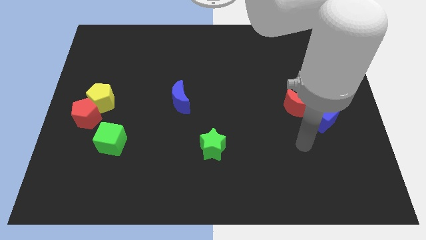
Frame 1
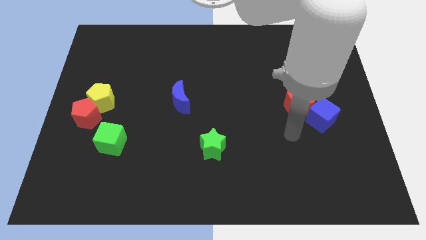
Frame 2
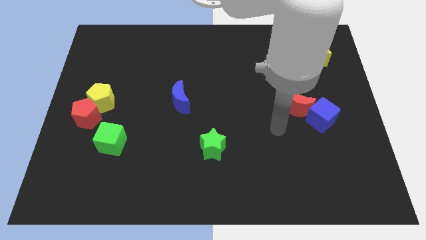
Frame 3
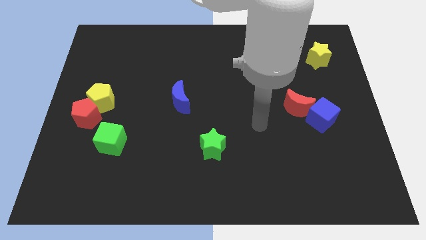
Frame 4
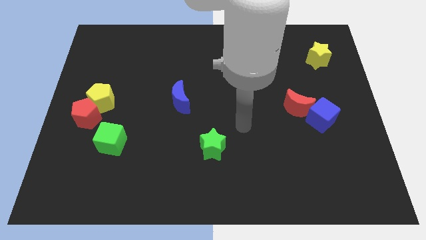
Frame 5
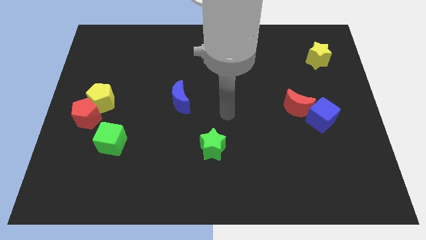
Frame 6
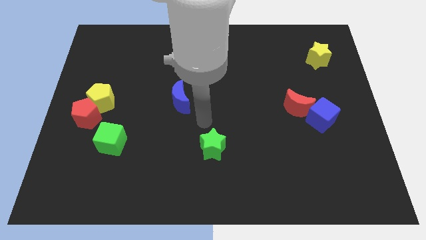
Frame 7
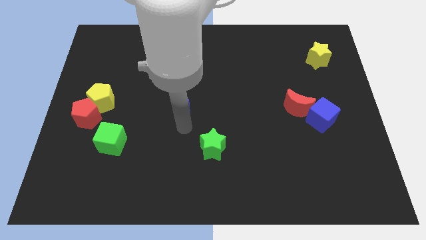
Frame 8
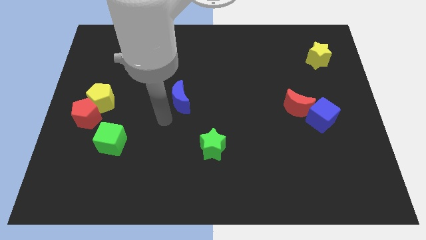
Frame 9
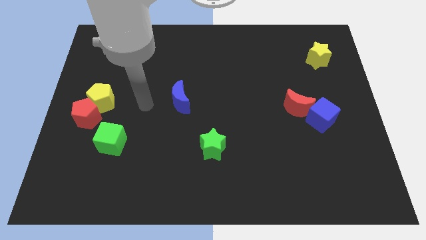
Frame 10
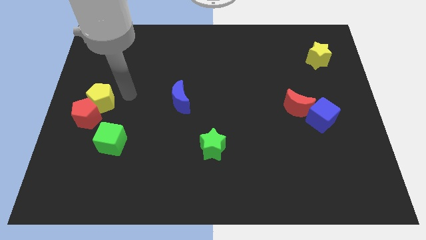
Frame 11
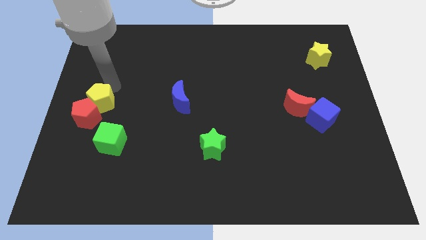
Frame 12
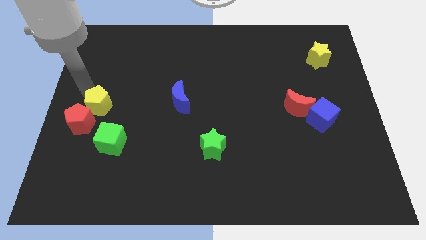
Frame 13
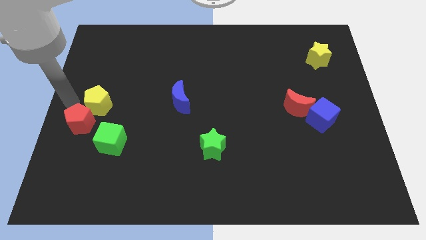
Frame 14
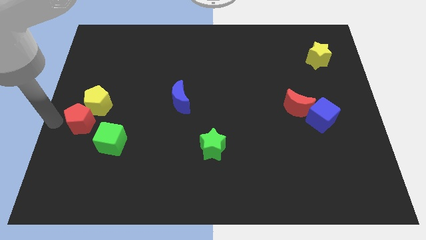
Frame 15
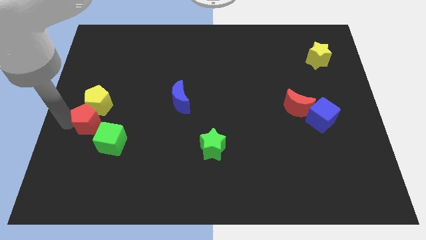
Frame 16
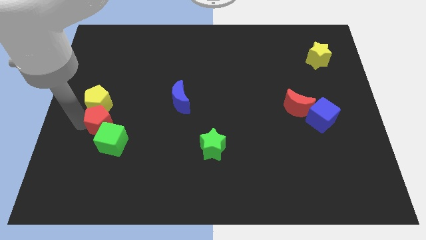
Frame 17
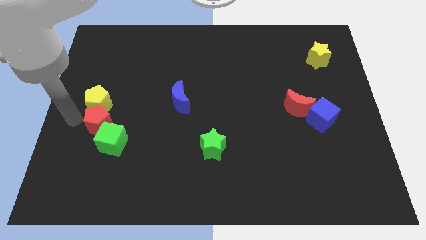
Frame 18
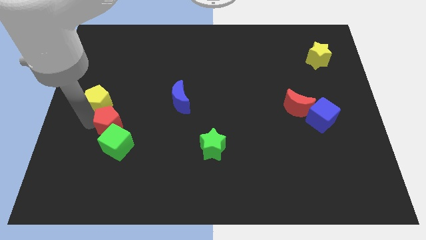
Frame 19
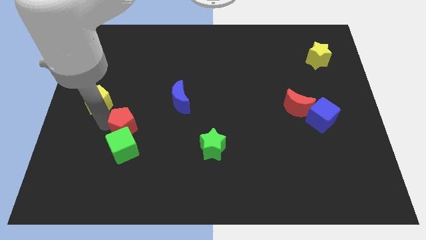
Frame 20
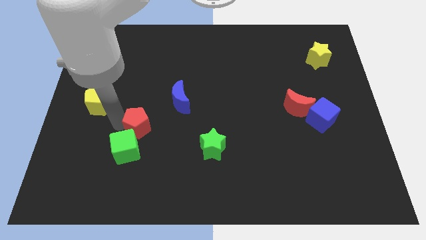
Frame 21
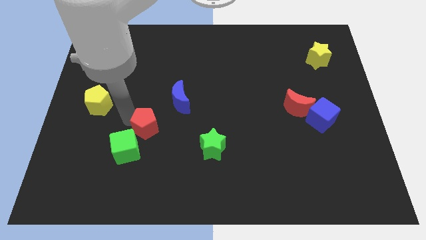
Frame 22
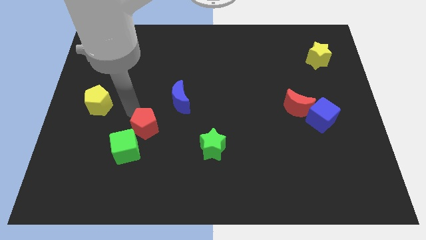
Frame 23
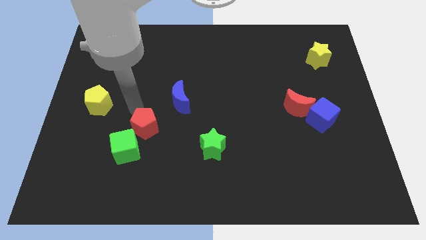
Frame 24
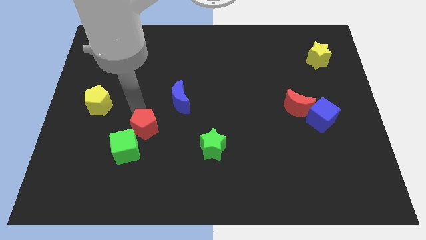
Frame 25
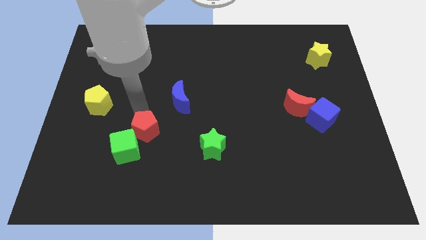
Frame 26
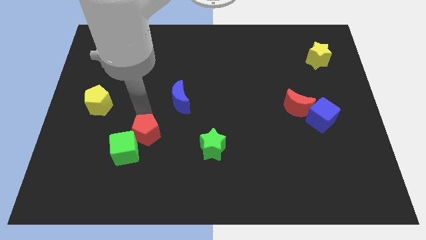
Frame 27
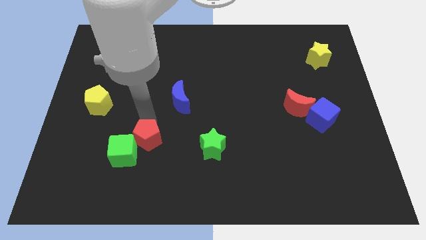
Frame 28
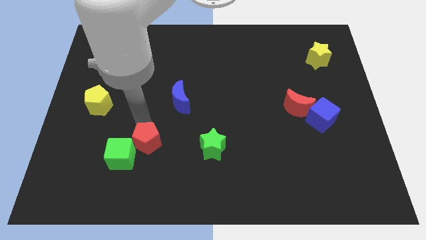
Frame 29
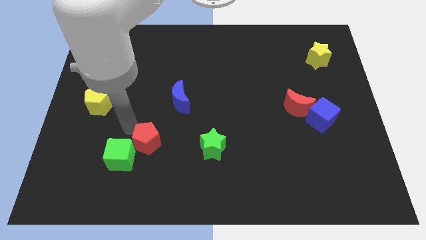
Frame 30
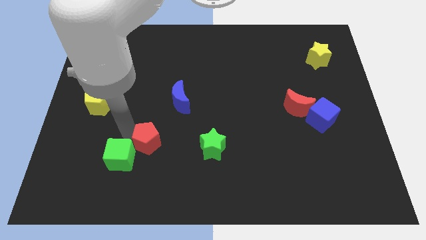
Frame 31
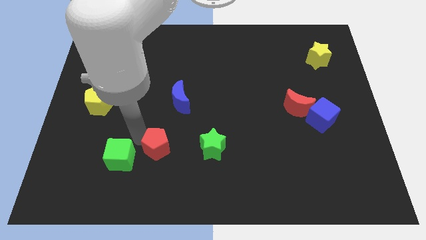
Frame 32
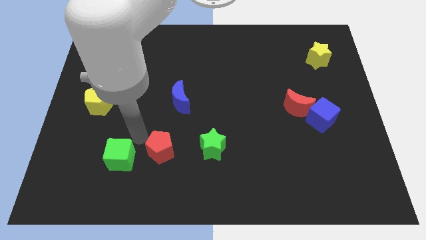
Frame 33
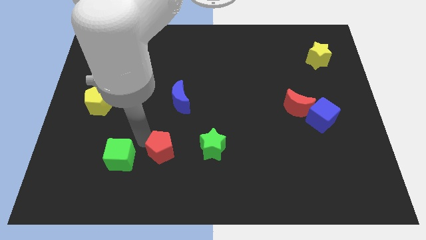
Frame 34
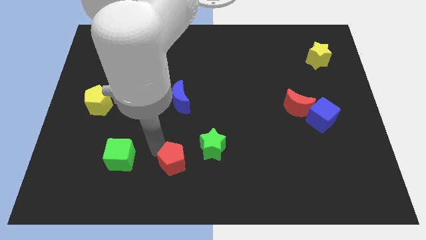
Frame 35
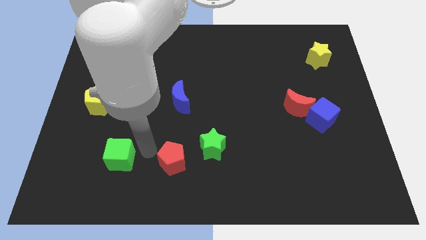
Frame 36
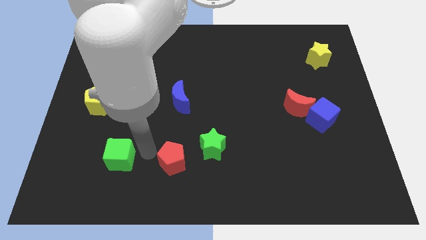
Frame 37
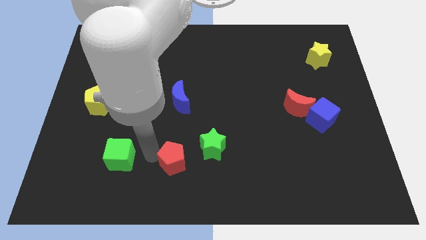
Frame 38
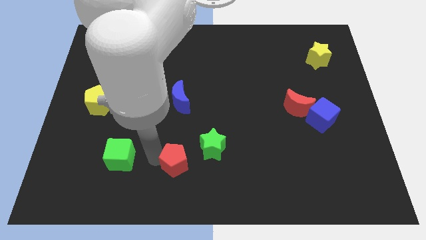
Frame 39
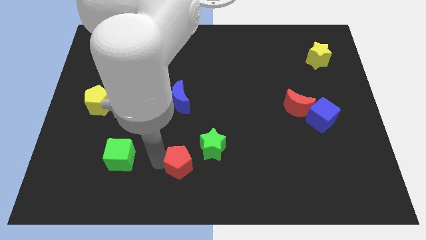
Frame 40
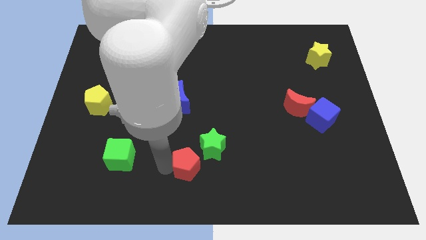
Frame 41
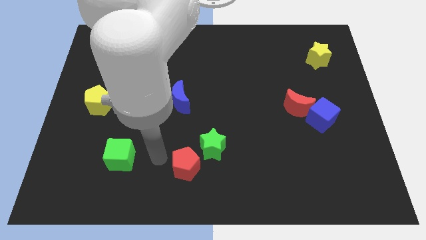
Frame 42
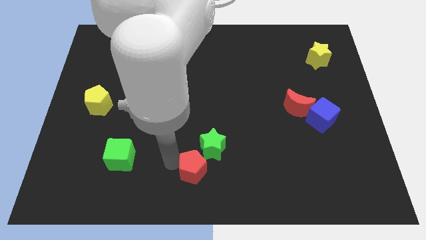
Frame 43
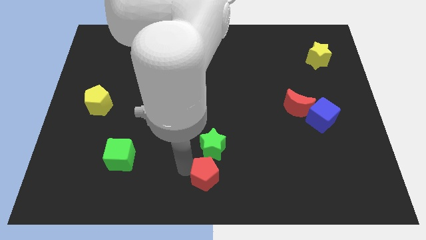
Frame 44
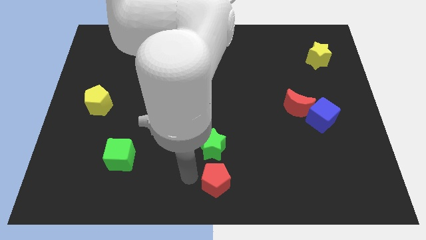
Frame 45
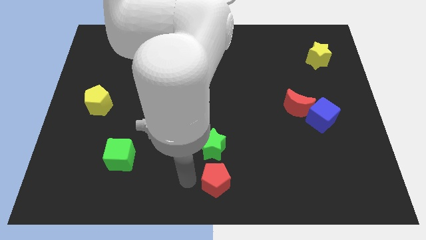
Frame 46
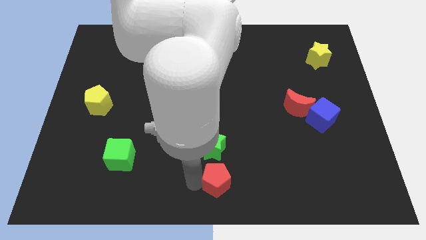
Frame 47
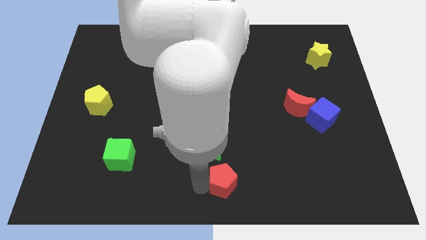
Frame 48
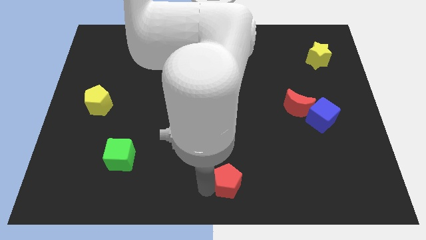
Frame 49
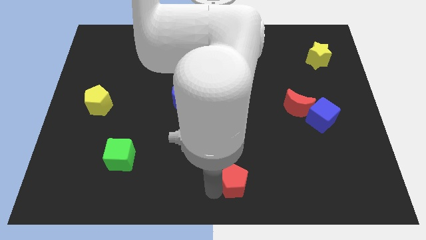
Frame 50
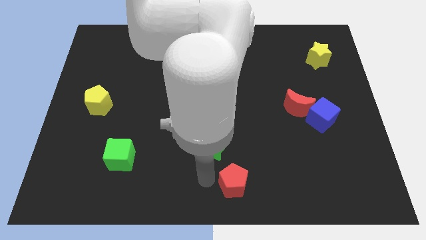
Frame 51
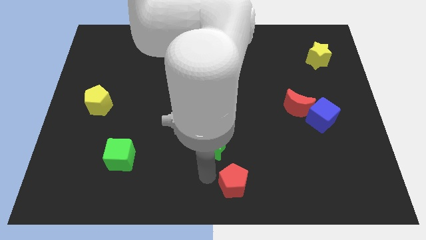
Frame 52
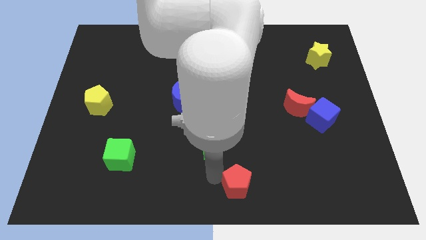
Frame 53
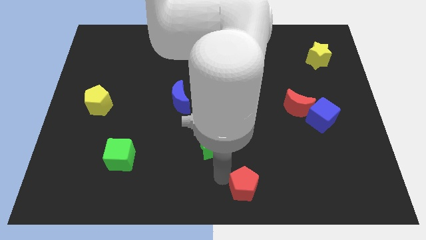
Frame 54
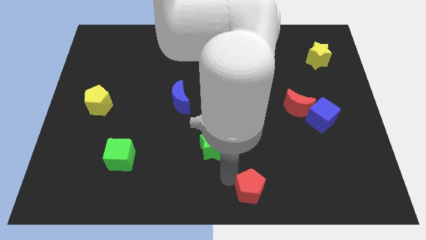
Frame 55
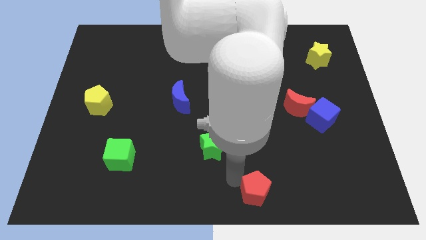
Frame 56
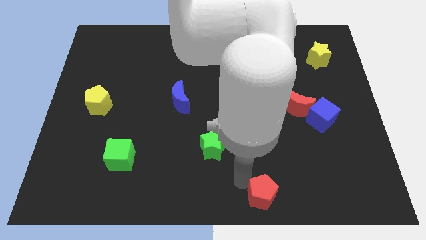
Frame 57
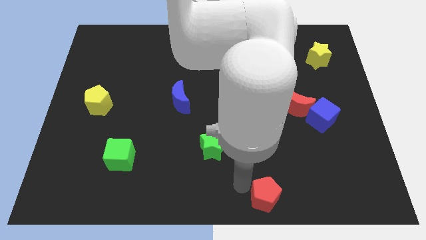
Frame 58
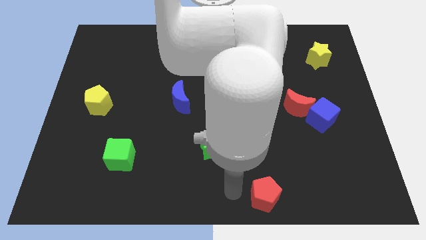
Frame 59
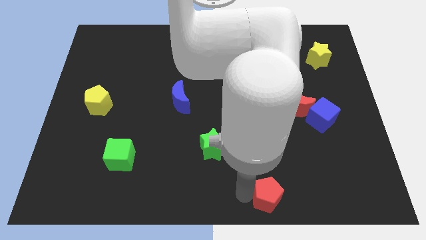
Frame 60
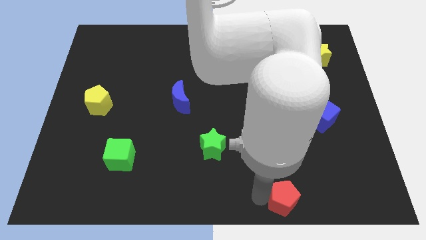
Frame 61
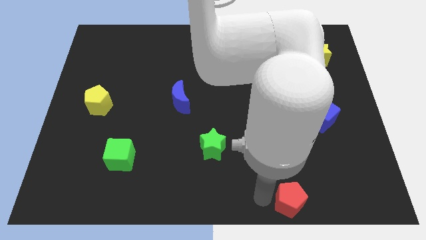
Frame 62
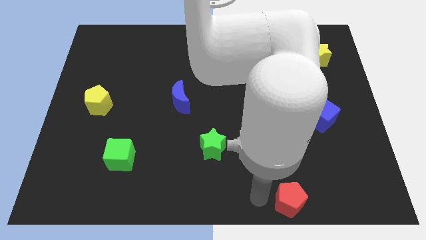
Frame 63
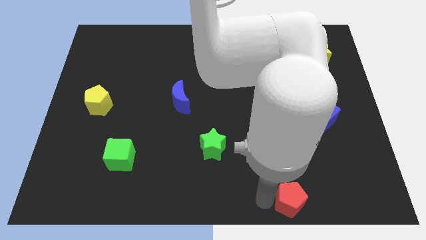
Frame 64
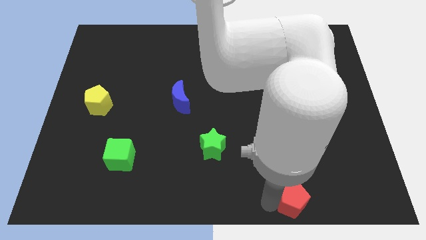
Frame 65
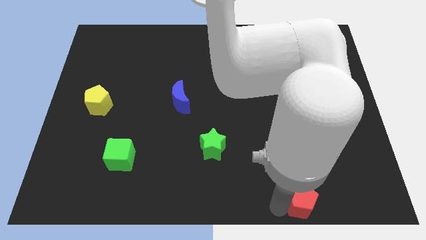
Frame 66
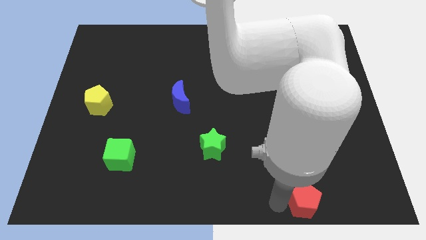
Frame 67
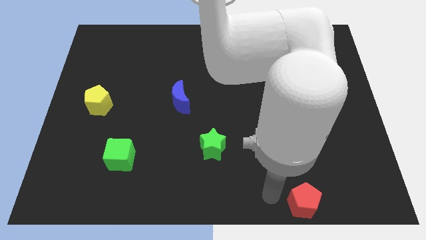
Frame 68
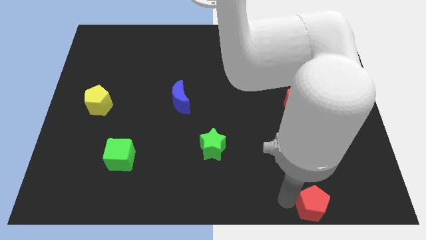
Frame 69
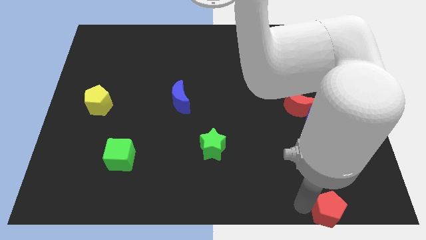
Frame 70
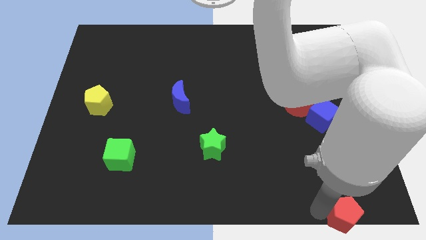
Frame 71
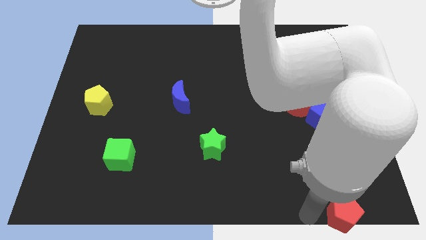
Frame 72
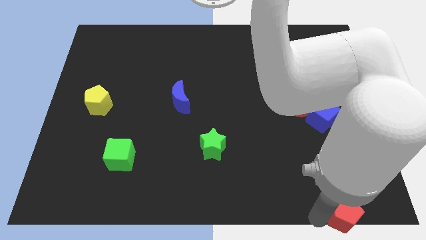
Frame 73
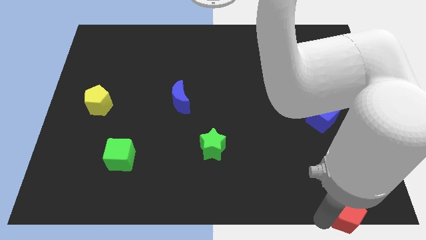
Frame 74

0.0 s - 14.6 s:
push the red pentagon to the lower right corner
